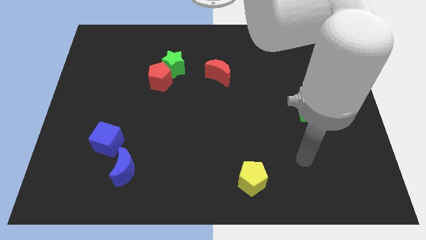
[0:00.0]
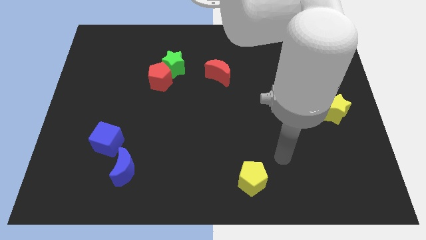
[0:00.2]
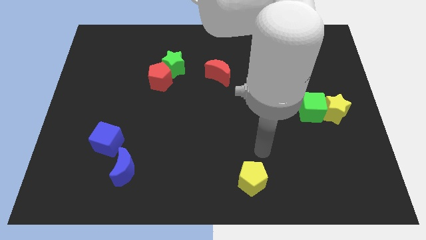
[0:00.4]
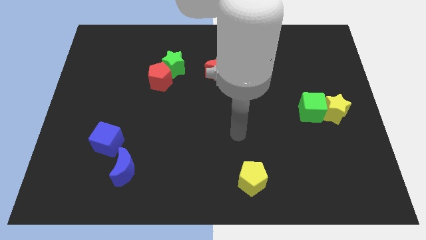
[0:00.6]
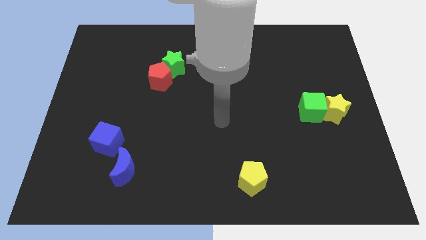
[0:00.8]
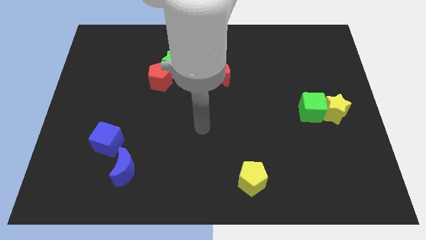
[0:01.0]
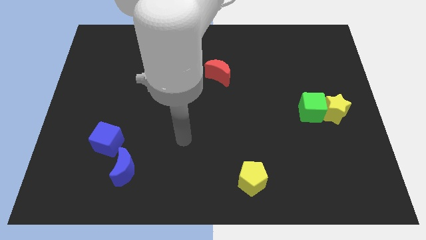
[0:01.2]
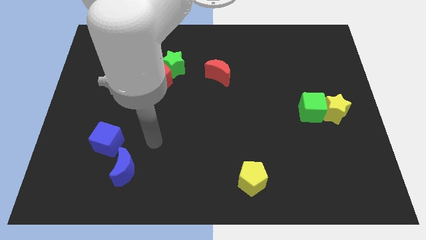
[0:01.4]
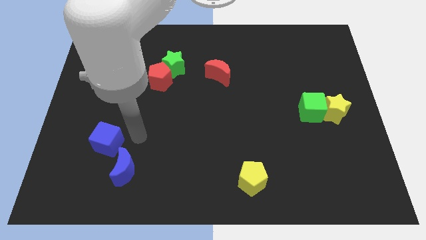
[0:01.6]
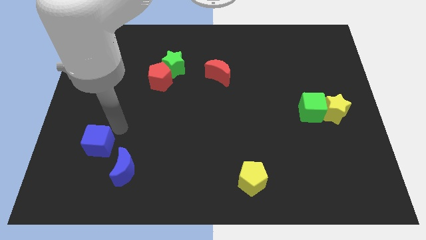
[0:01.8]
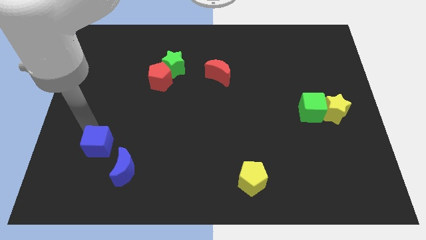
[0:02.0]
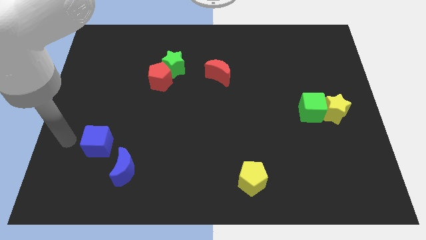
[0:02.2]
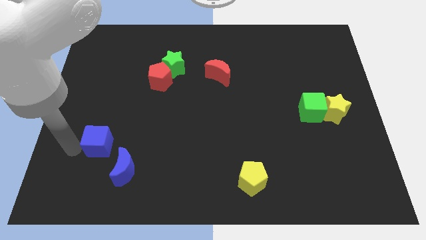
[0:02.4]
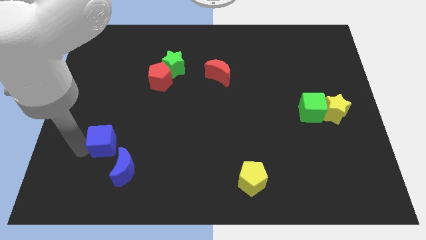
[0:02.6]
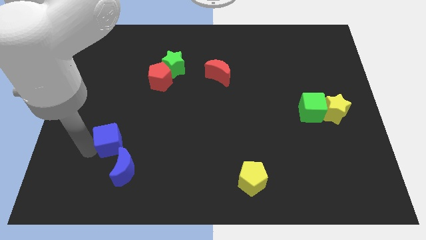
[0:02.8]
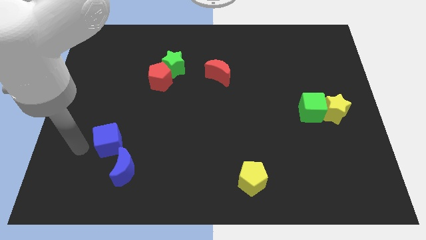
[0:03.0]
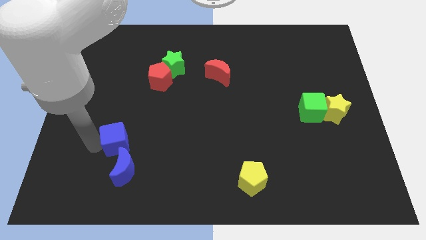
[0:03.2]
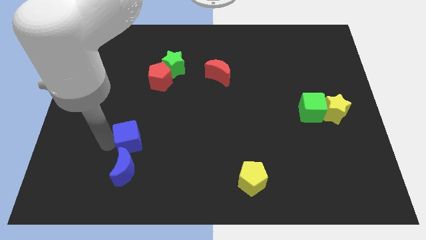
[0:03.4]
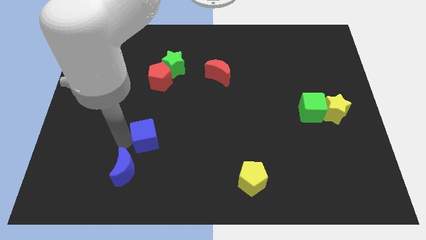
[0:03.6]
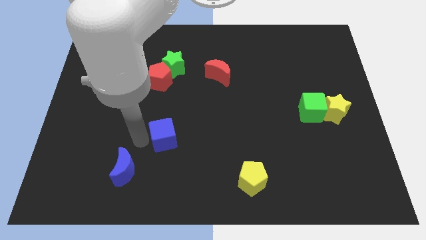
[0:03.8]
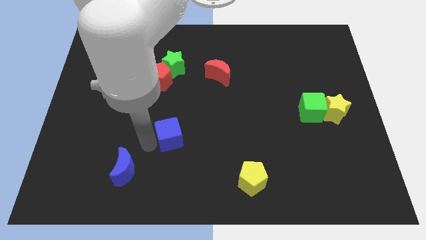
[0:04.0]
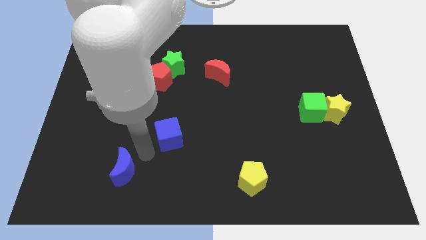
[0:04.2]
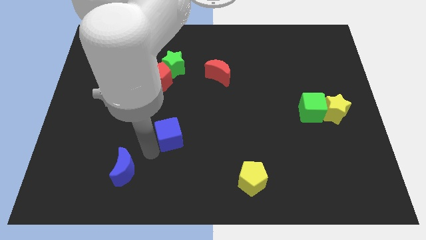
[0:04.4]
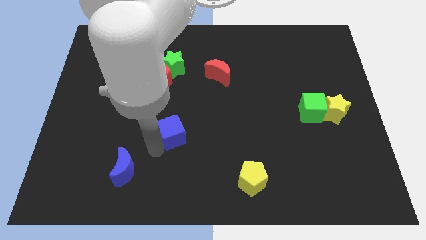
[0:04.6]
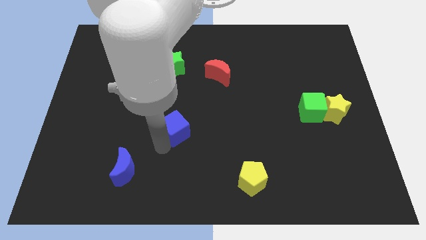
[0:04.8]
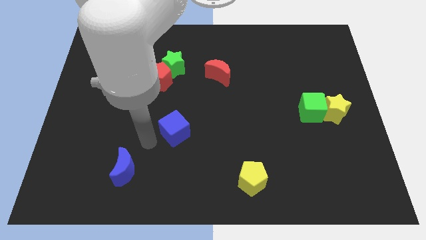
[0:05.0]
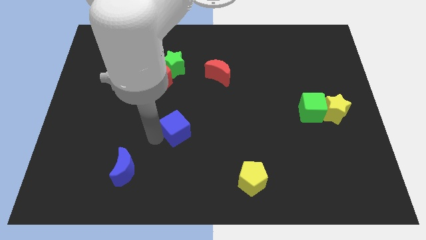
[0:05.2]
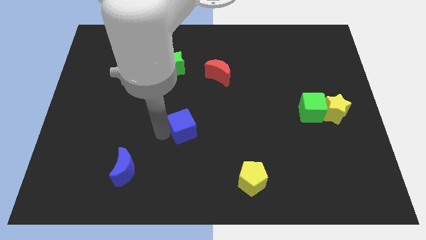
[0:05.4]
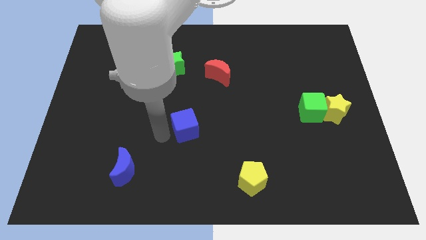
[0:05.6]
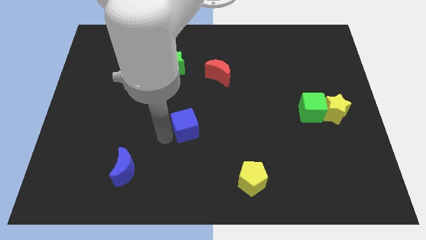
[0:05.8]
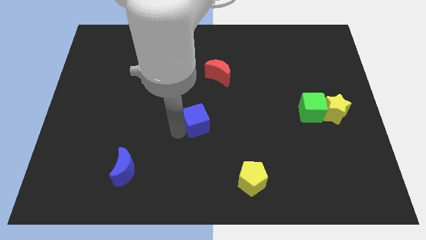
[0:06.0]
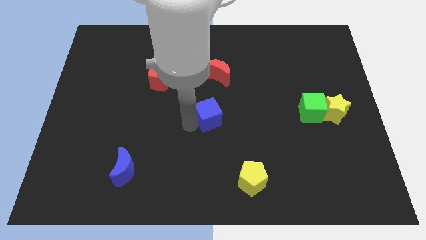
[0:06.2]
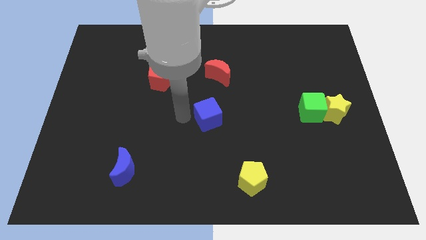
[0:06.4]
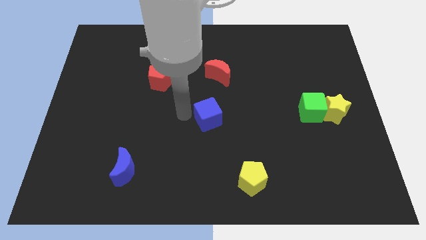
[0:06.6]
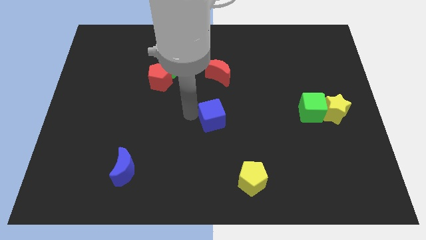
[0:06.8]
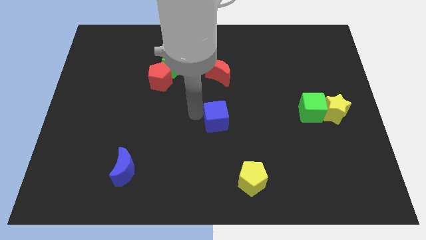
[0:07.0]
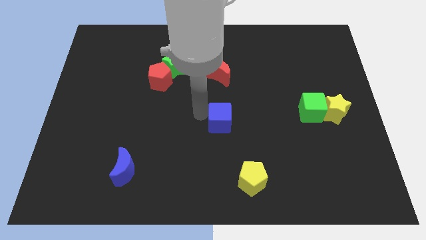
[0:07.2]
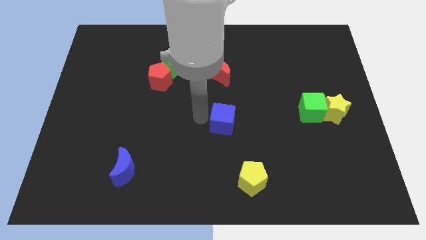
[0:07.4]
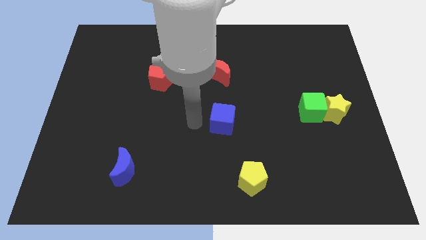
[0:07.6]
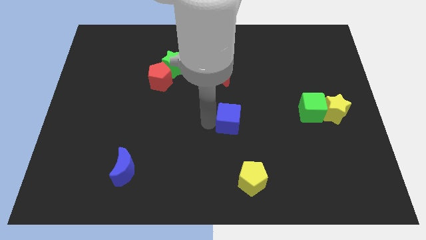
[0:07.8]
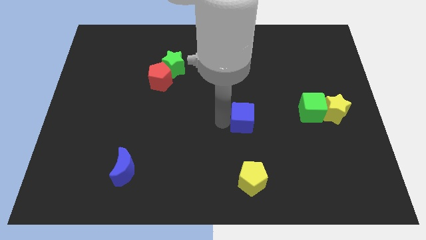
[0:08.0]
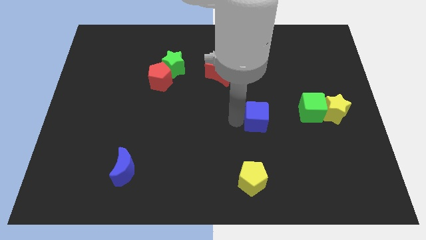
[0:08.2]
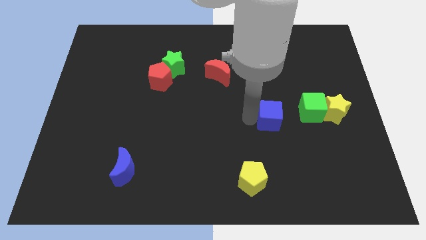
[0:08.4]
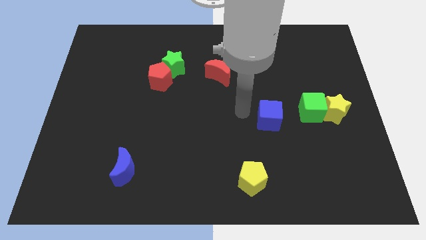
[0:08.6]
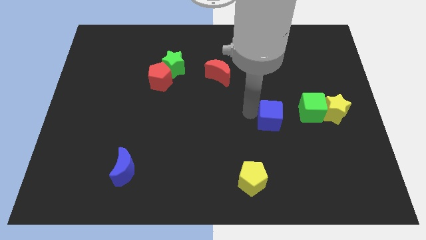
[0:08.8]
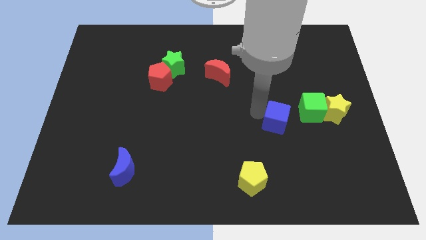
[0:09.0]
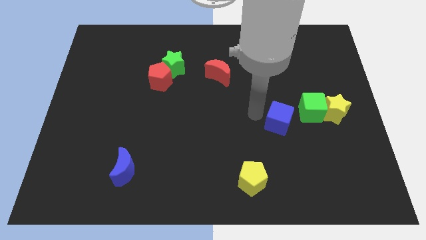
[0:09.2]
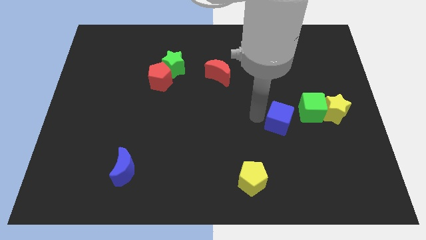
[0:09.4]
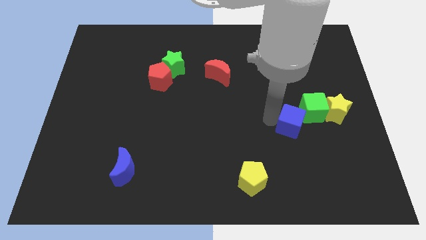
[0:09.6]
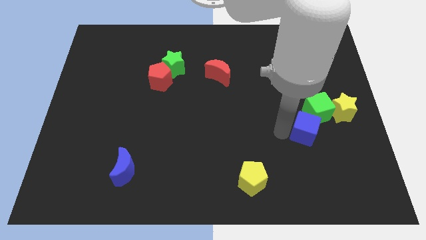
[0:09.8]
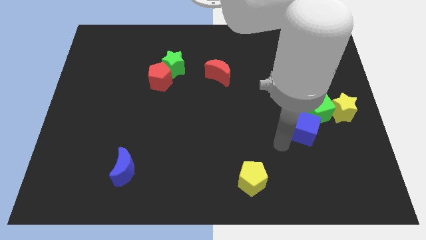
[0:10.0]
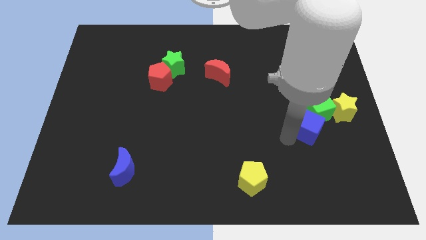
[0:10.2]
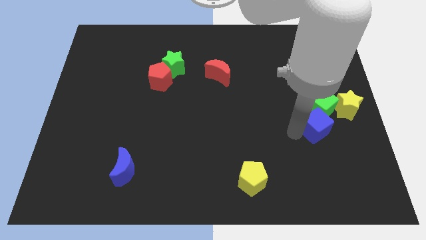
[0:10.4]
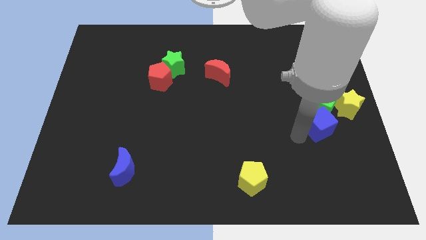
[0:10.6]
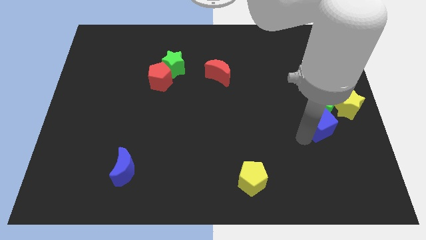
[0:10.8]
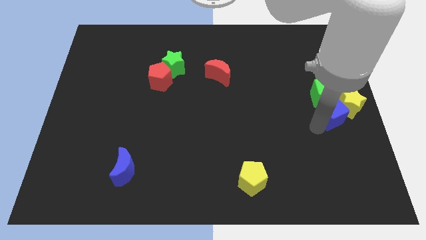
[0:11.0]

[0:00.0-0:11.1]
push the blue cube next to the yellow star
